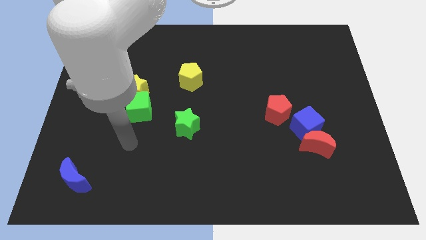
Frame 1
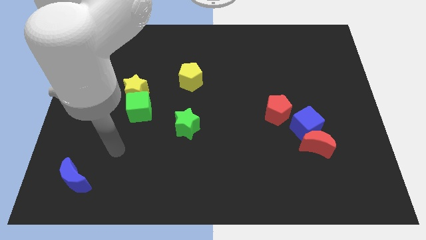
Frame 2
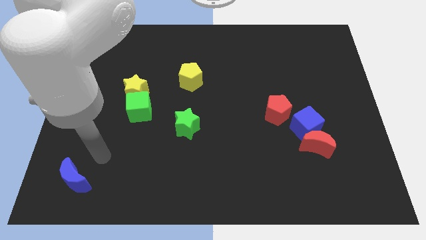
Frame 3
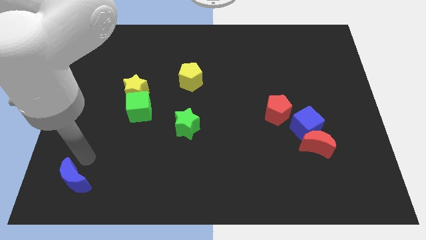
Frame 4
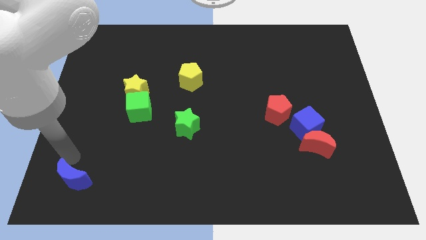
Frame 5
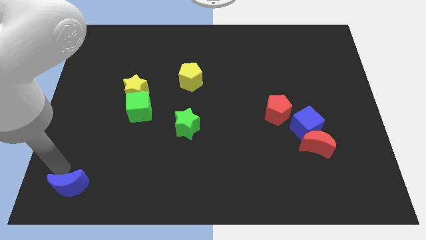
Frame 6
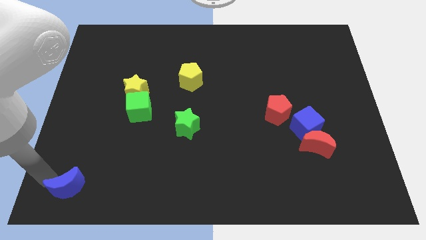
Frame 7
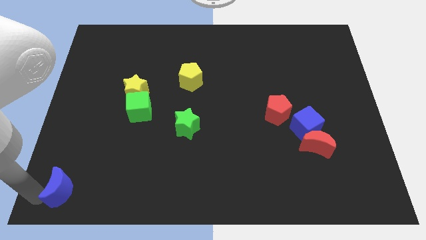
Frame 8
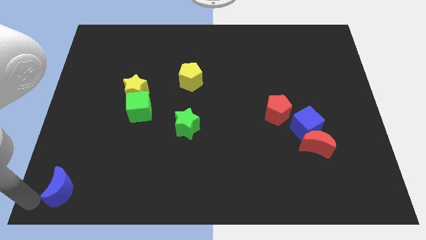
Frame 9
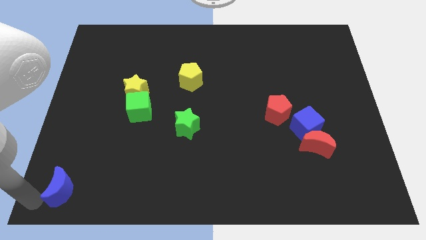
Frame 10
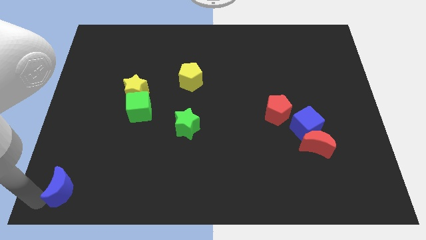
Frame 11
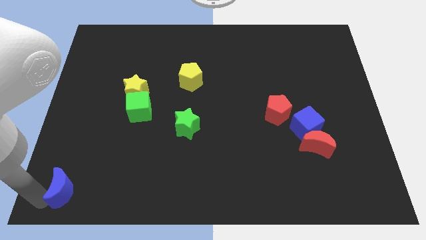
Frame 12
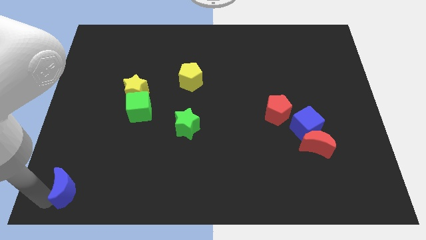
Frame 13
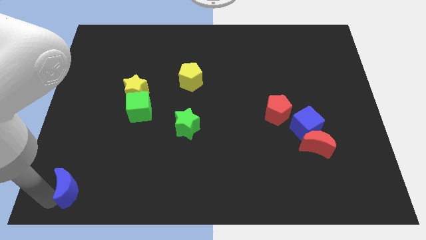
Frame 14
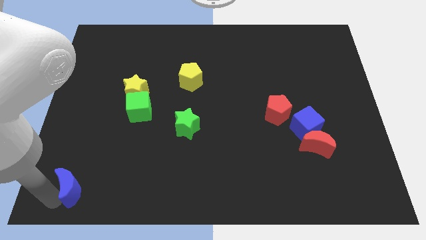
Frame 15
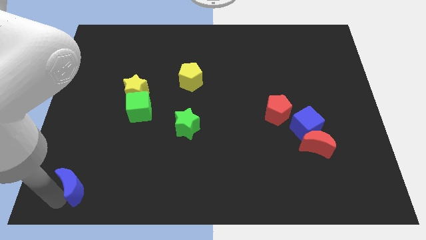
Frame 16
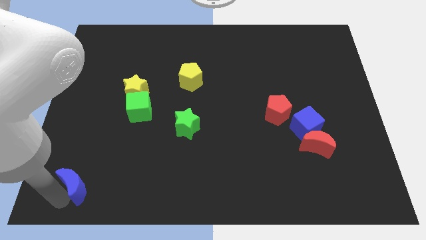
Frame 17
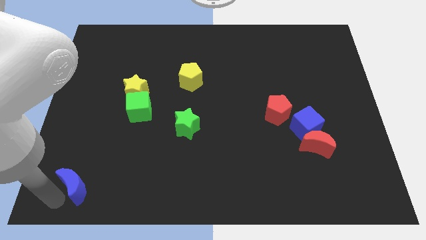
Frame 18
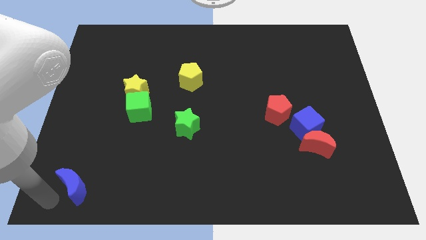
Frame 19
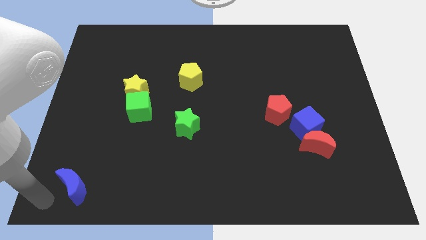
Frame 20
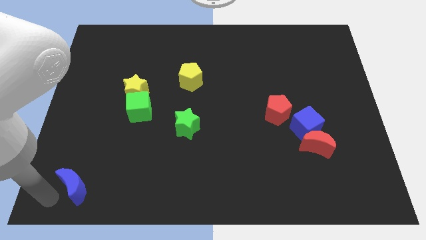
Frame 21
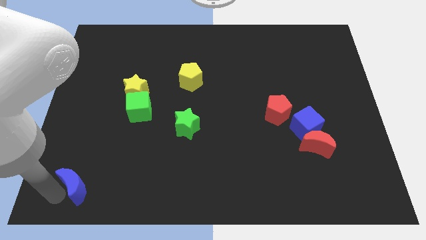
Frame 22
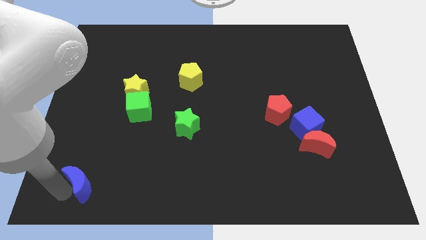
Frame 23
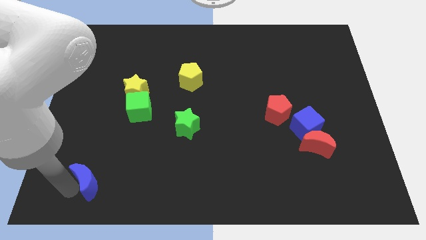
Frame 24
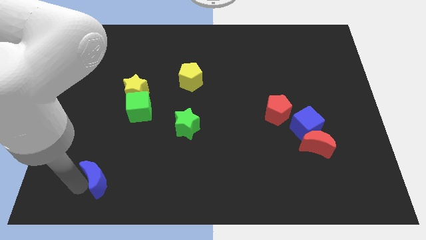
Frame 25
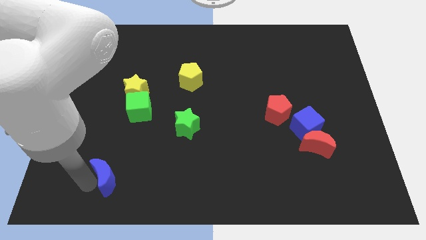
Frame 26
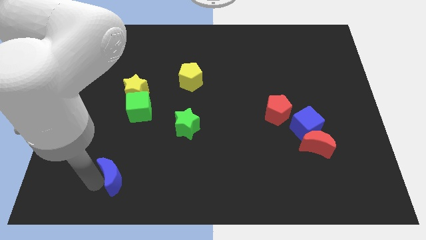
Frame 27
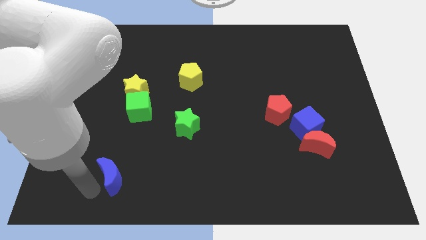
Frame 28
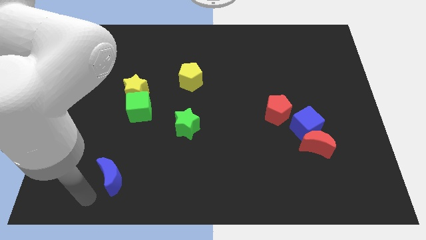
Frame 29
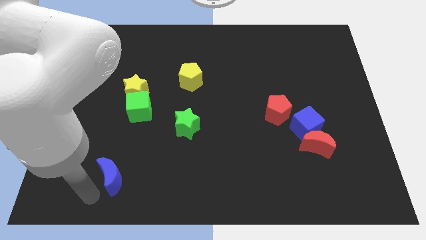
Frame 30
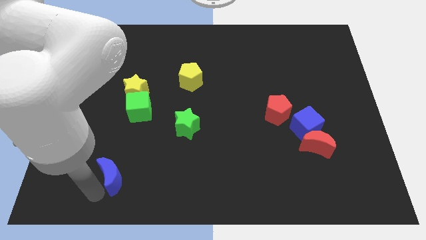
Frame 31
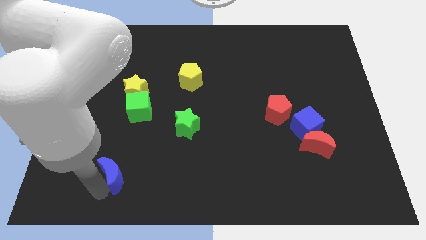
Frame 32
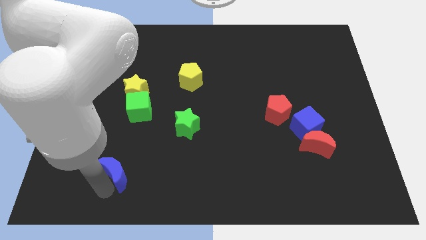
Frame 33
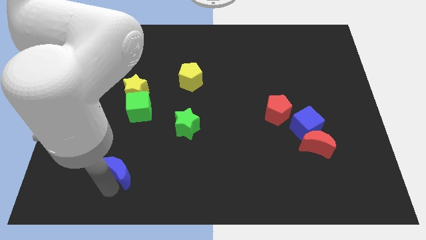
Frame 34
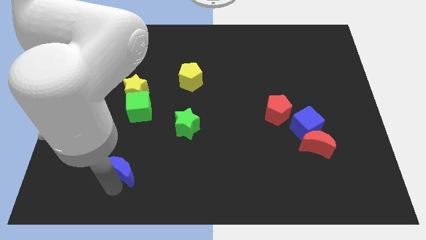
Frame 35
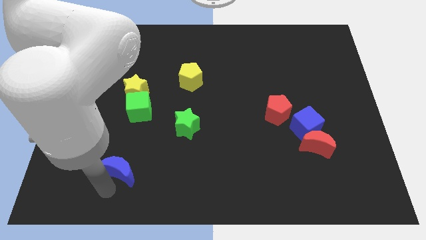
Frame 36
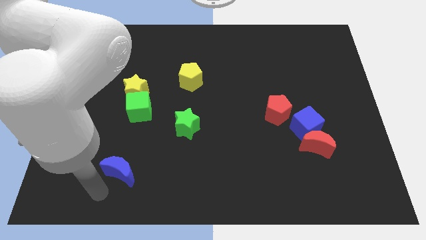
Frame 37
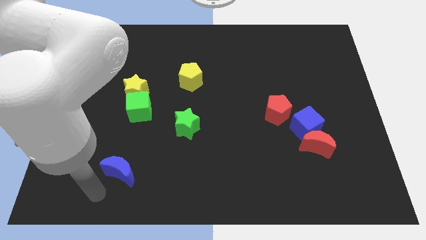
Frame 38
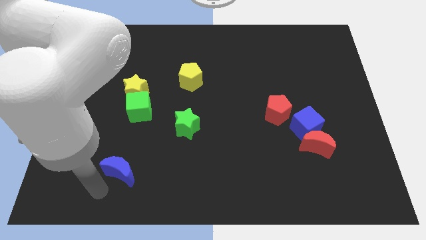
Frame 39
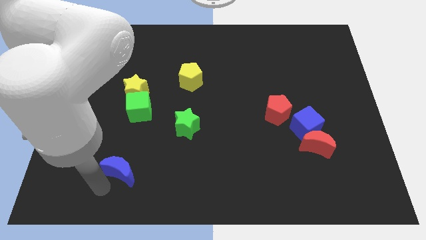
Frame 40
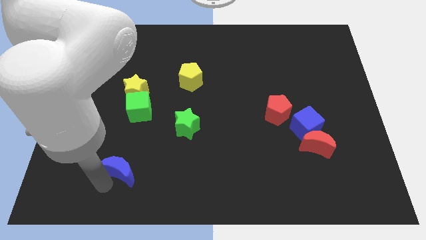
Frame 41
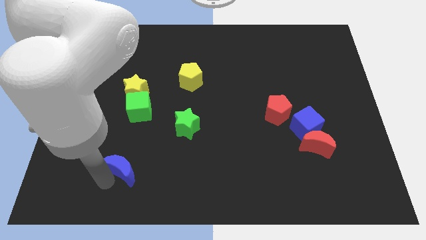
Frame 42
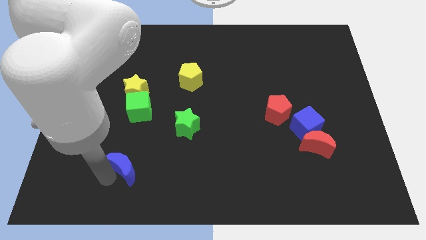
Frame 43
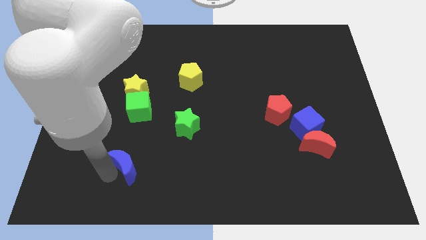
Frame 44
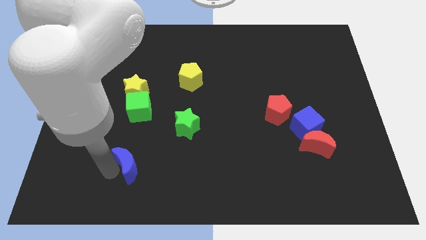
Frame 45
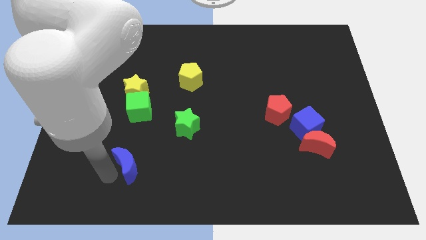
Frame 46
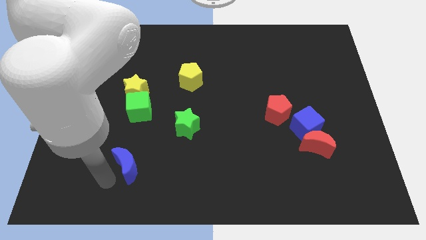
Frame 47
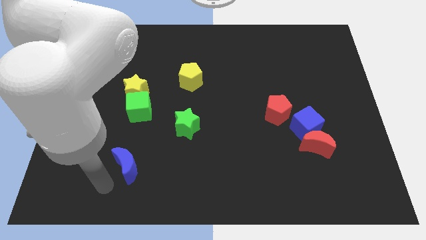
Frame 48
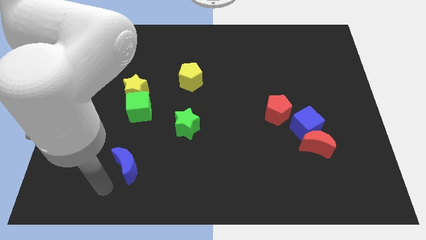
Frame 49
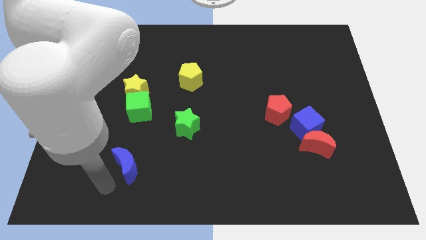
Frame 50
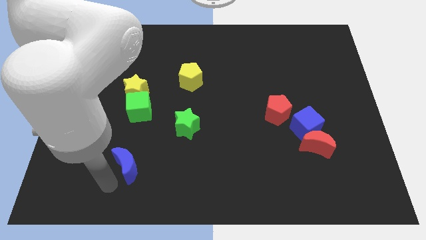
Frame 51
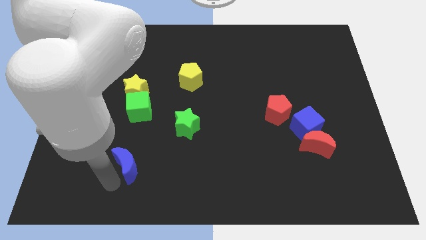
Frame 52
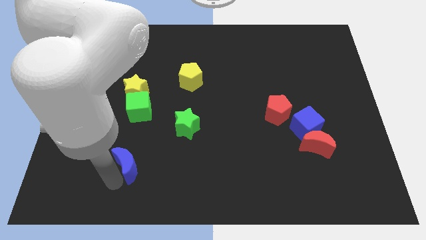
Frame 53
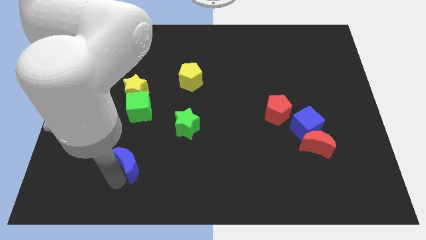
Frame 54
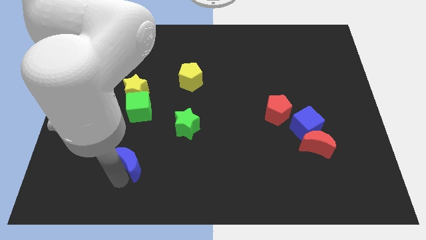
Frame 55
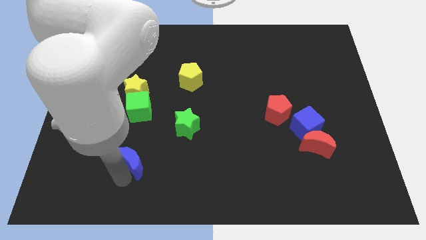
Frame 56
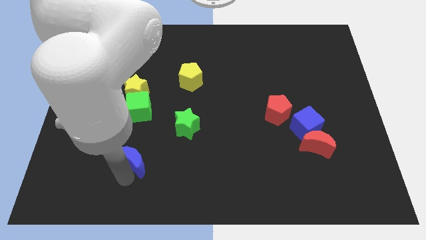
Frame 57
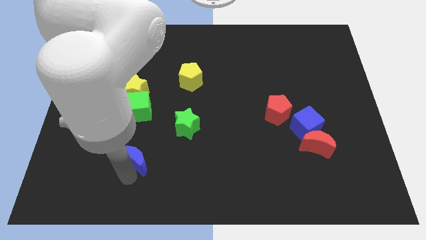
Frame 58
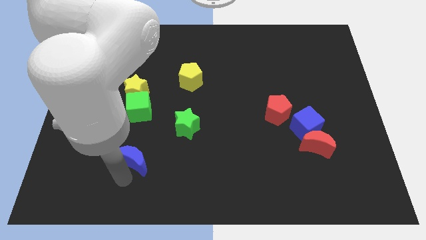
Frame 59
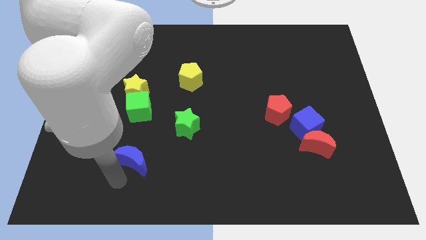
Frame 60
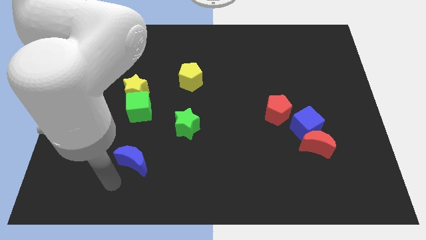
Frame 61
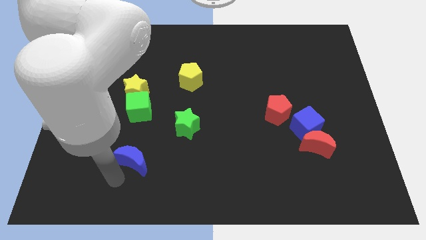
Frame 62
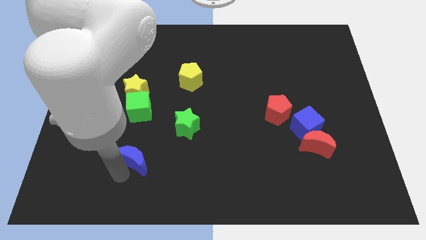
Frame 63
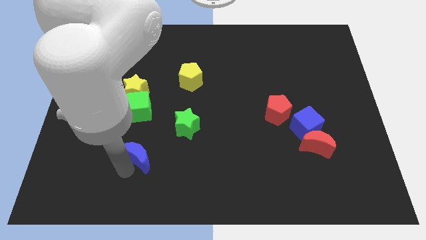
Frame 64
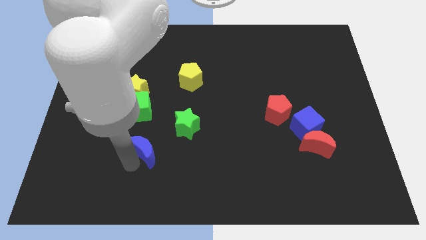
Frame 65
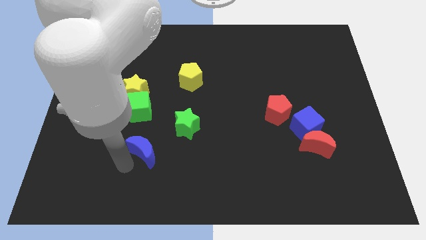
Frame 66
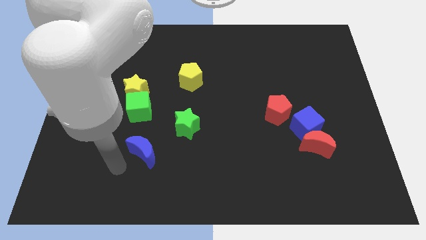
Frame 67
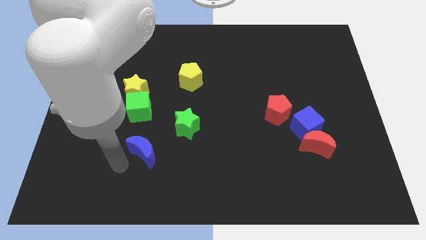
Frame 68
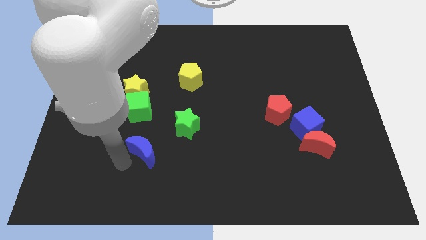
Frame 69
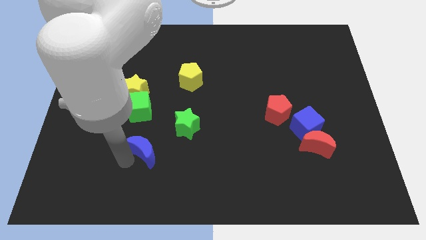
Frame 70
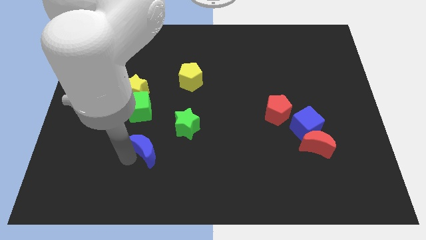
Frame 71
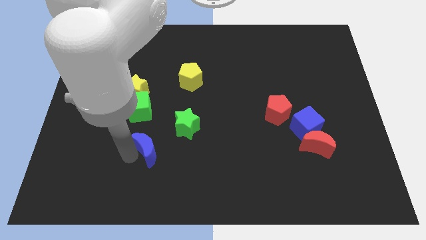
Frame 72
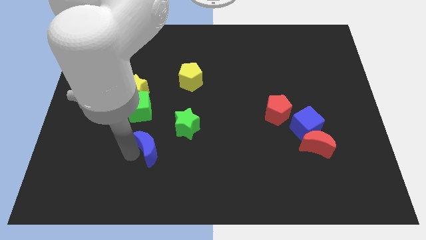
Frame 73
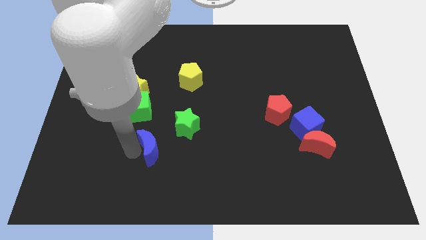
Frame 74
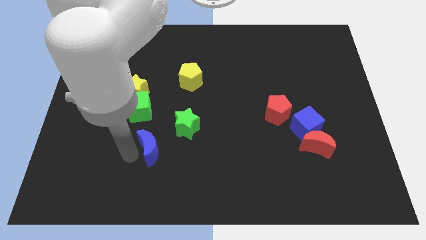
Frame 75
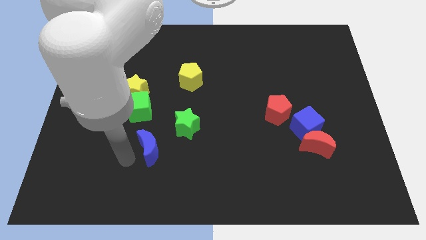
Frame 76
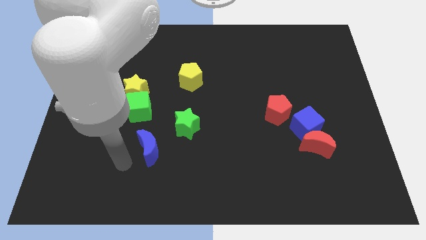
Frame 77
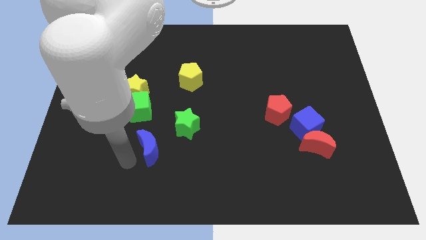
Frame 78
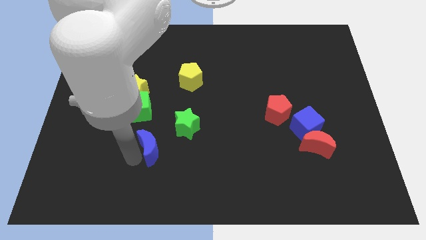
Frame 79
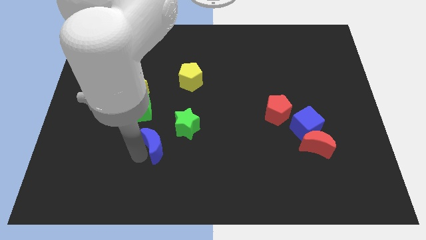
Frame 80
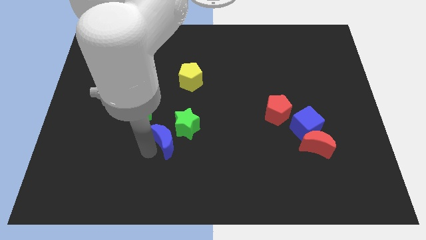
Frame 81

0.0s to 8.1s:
move the blue moon next to the green star
